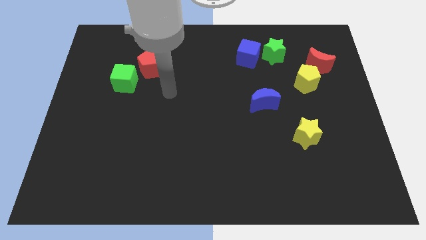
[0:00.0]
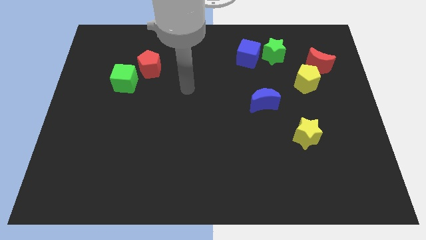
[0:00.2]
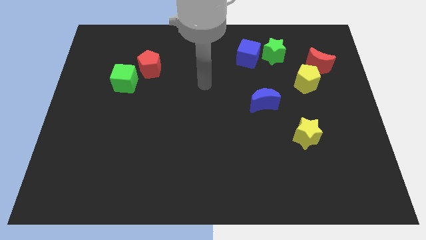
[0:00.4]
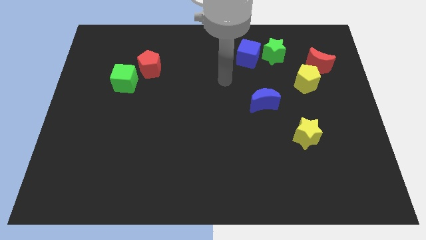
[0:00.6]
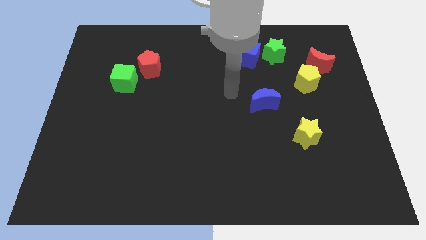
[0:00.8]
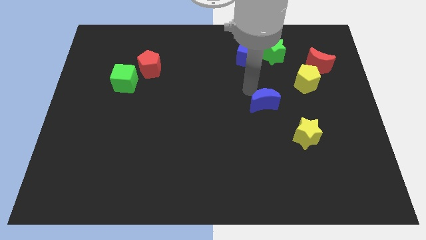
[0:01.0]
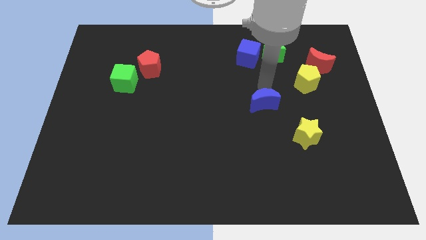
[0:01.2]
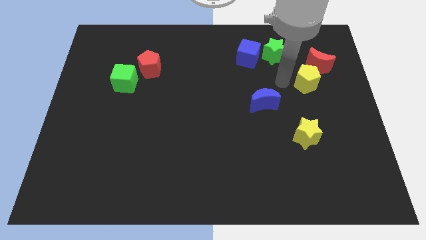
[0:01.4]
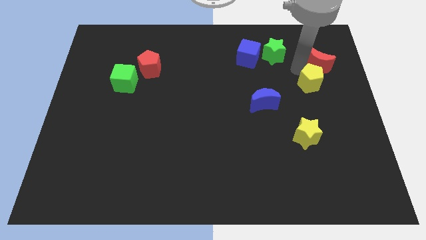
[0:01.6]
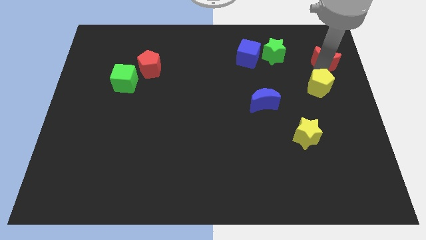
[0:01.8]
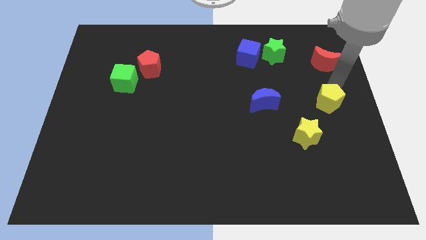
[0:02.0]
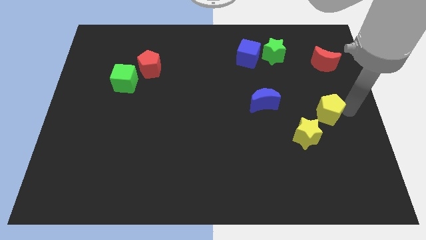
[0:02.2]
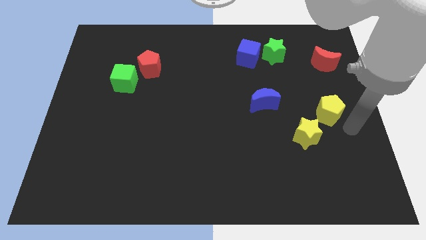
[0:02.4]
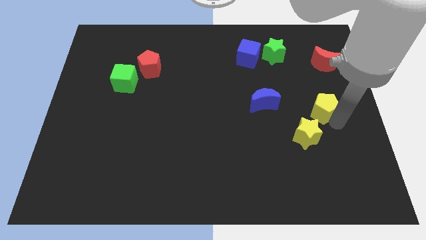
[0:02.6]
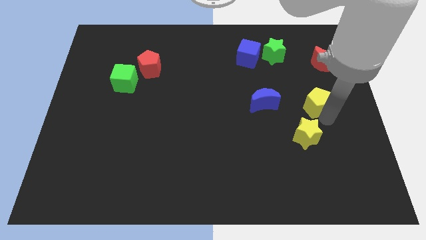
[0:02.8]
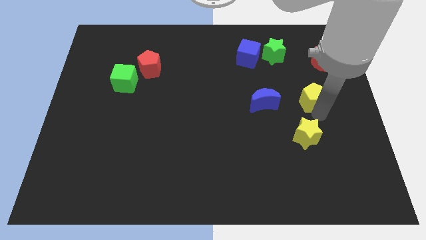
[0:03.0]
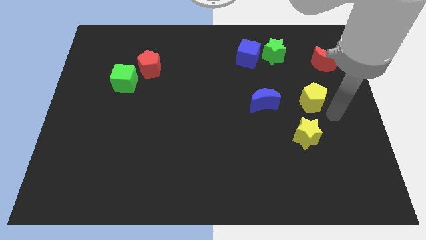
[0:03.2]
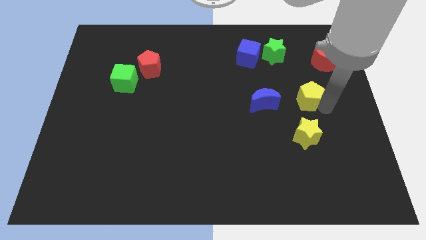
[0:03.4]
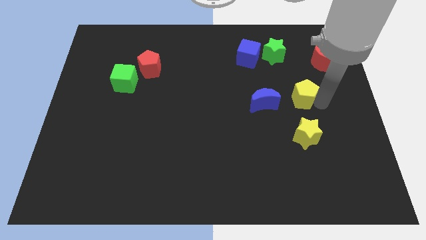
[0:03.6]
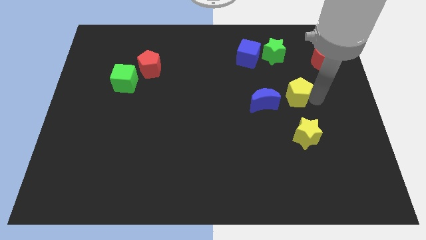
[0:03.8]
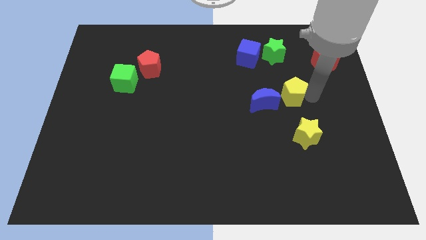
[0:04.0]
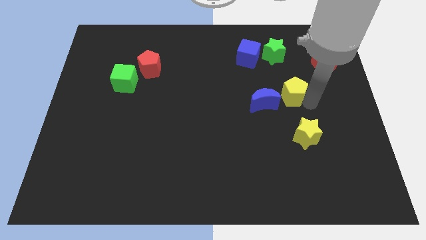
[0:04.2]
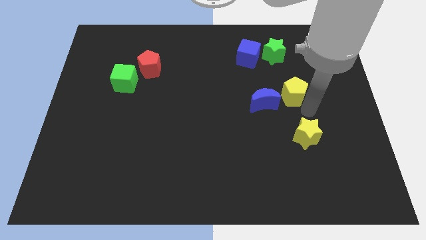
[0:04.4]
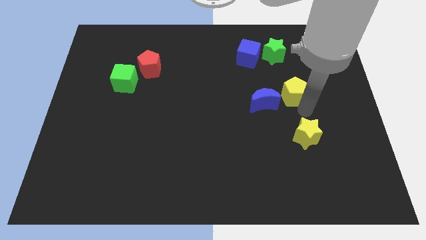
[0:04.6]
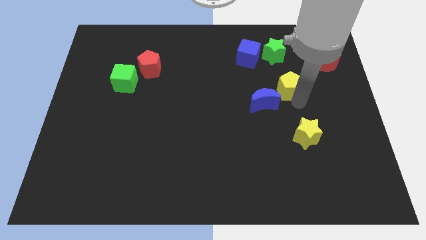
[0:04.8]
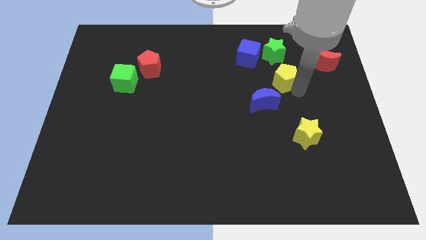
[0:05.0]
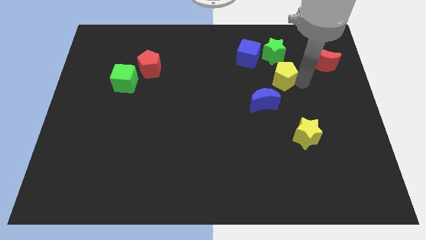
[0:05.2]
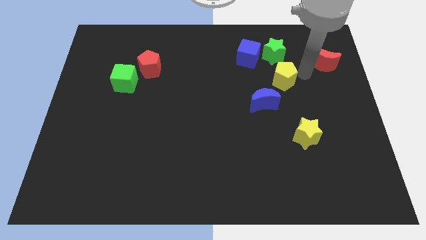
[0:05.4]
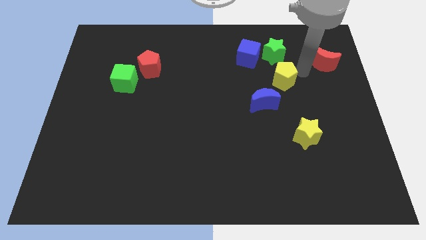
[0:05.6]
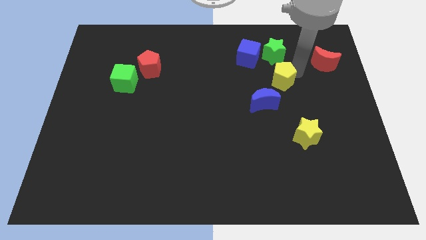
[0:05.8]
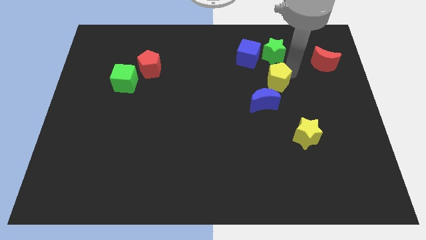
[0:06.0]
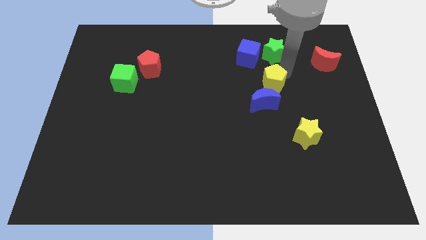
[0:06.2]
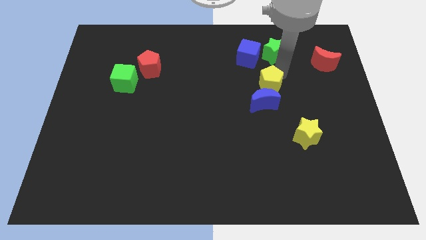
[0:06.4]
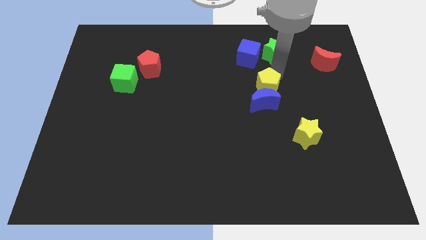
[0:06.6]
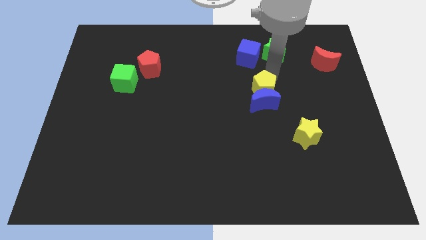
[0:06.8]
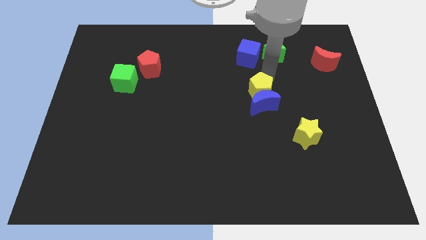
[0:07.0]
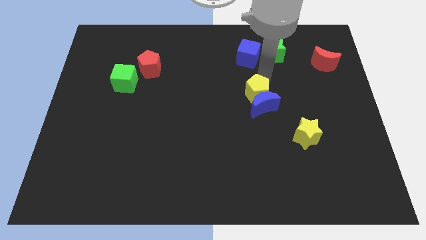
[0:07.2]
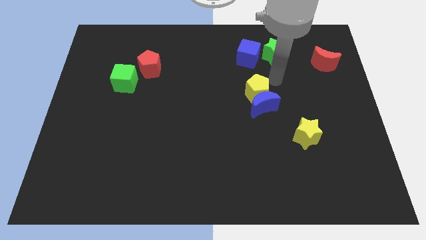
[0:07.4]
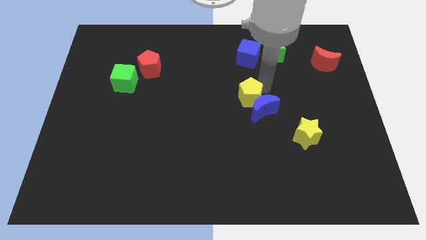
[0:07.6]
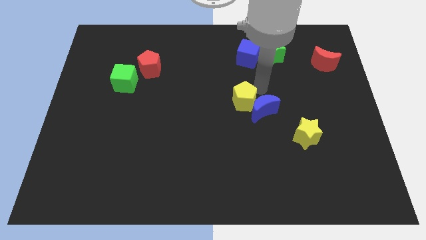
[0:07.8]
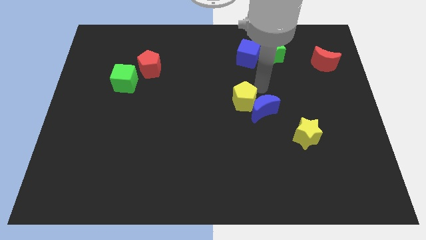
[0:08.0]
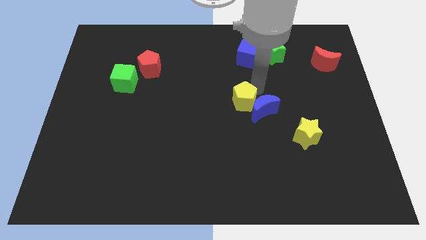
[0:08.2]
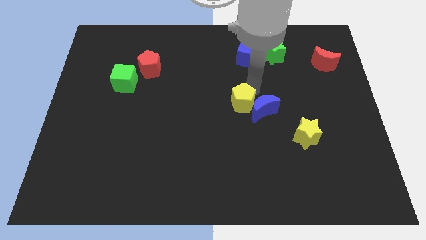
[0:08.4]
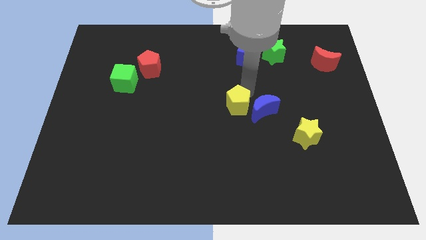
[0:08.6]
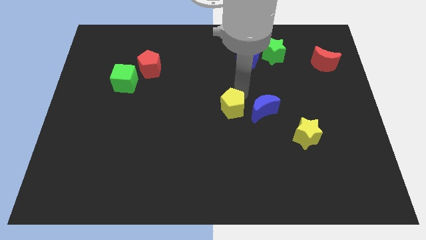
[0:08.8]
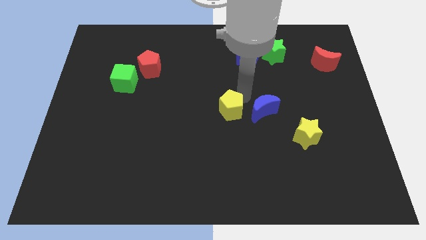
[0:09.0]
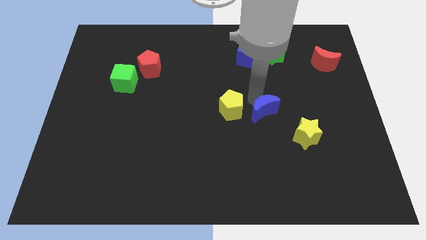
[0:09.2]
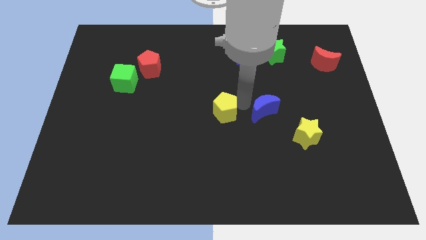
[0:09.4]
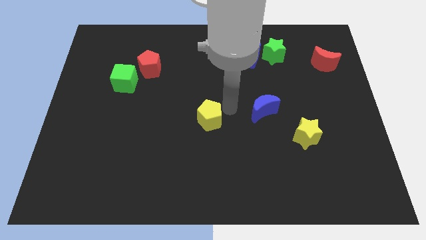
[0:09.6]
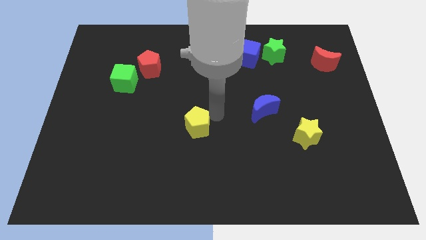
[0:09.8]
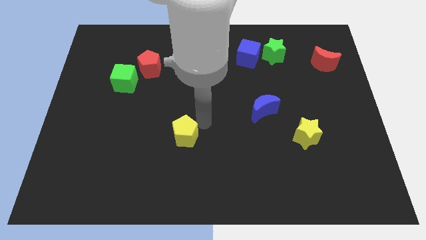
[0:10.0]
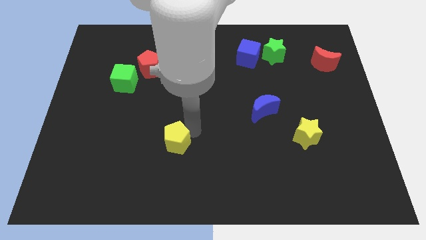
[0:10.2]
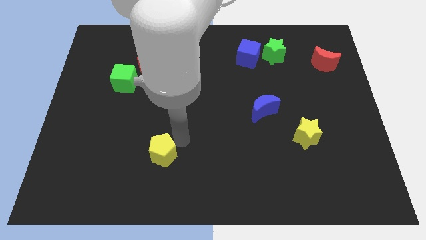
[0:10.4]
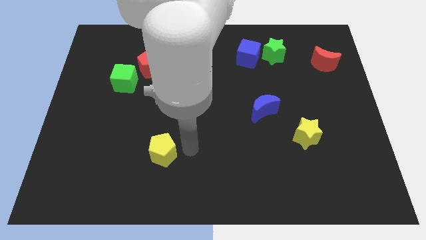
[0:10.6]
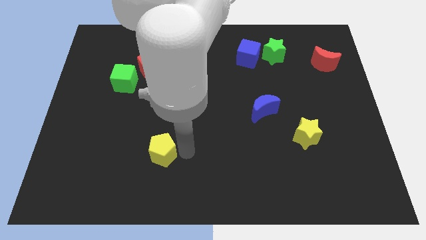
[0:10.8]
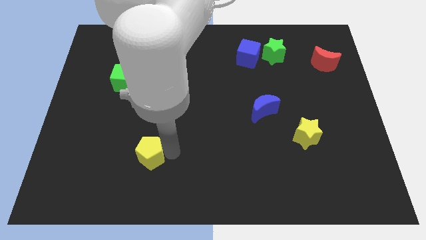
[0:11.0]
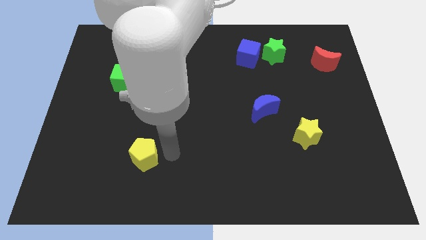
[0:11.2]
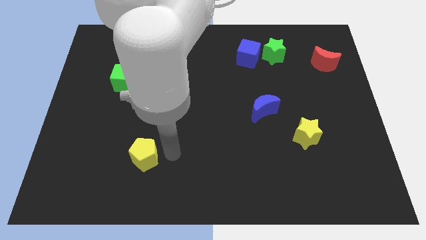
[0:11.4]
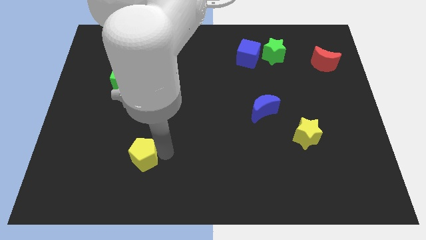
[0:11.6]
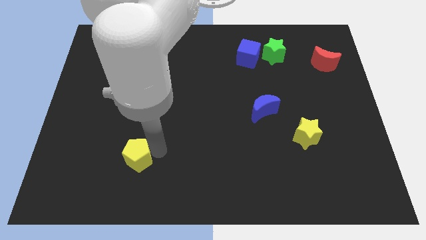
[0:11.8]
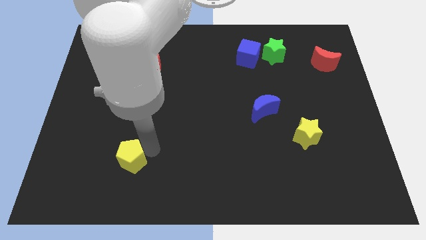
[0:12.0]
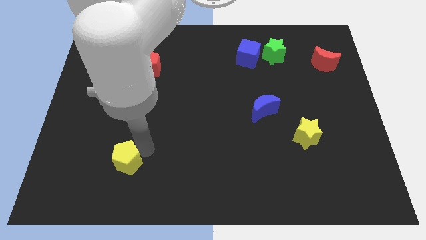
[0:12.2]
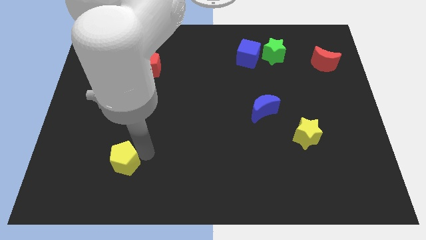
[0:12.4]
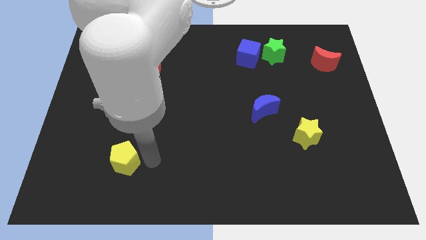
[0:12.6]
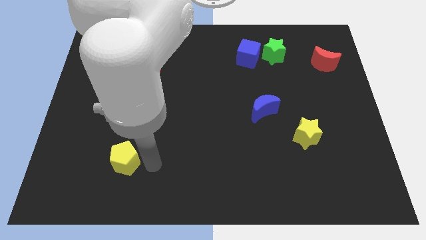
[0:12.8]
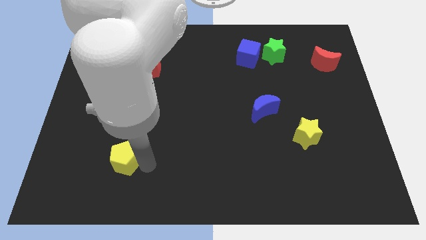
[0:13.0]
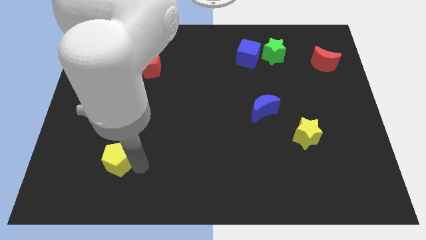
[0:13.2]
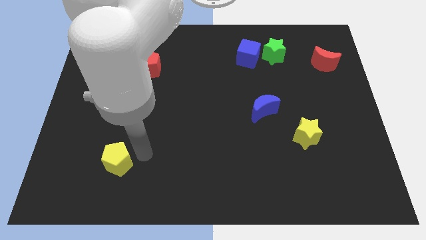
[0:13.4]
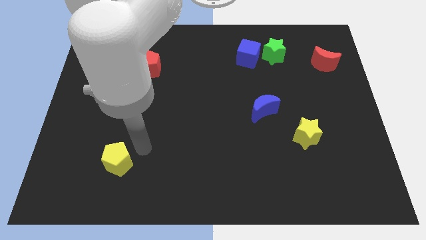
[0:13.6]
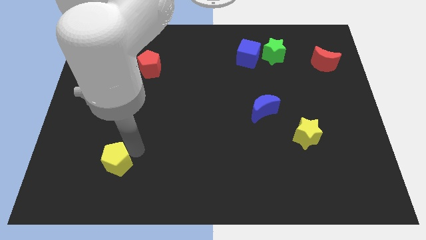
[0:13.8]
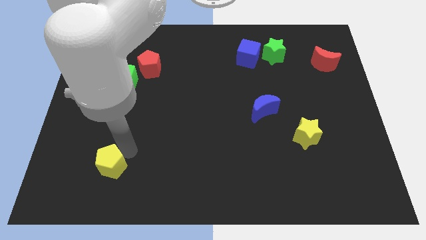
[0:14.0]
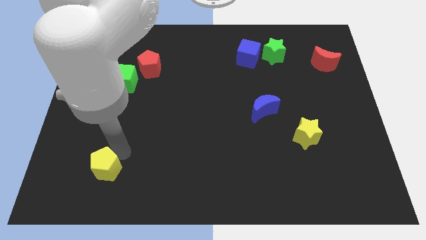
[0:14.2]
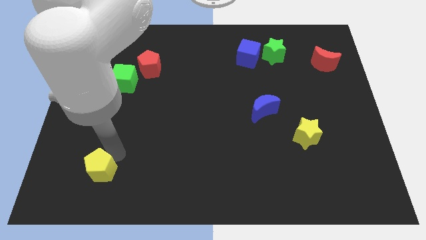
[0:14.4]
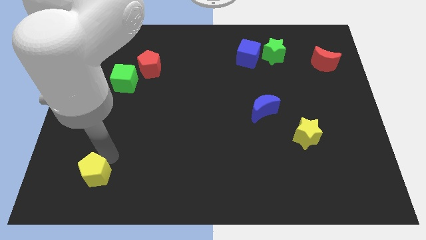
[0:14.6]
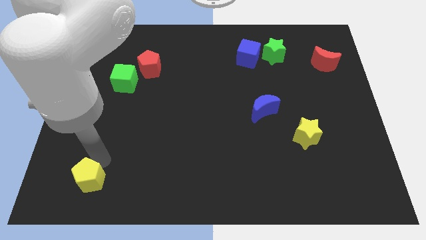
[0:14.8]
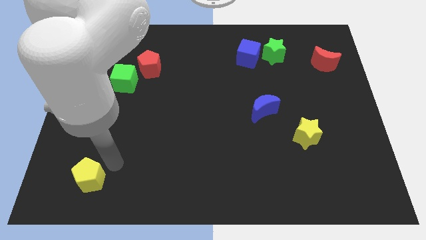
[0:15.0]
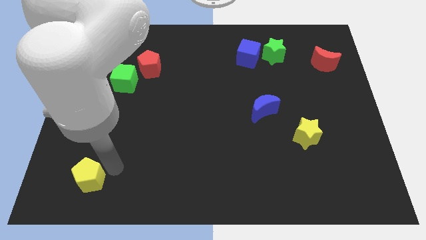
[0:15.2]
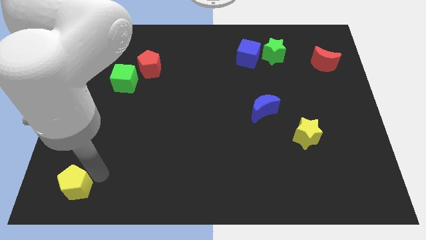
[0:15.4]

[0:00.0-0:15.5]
slide the yellow pentagon to the lower left corner
